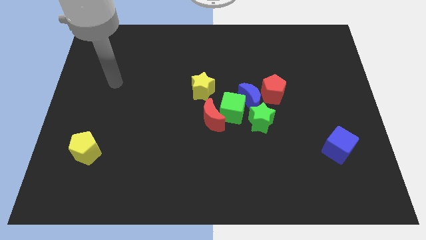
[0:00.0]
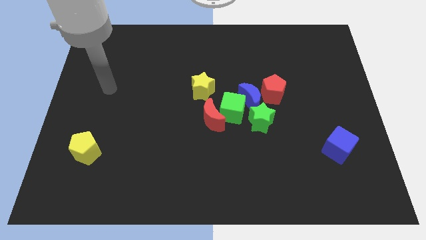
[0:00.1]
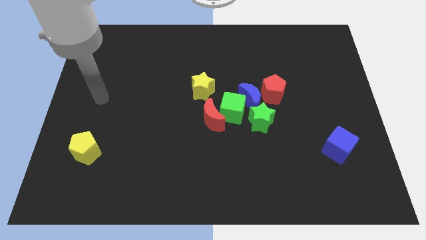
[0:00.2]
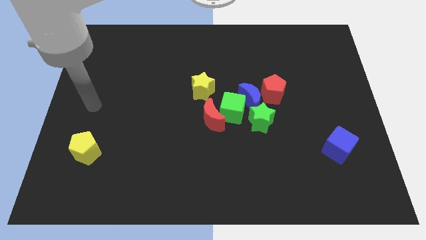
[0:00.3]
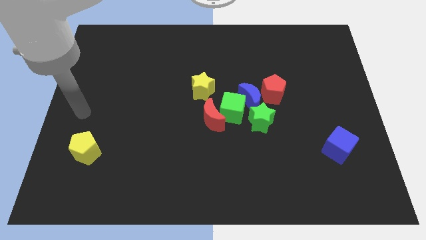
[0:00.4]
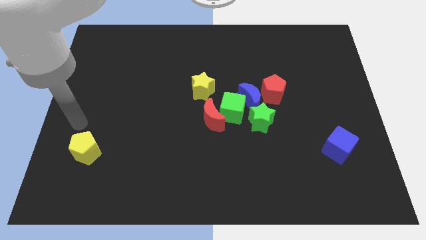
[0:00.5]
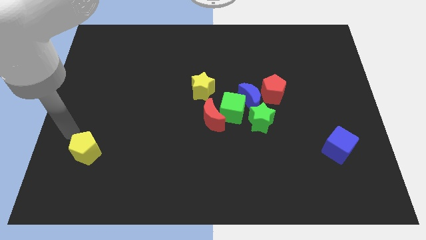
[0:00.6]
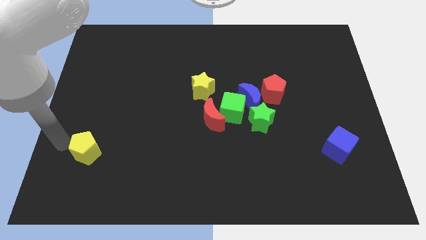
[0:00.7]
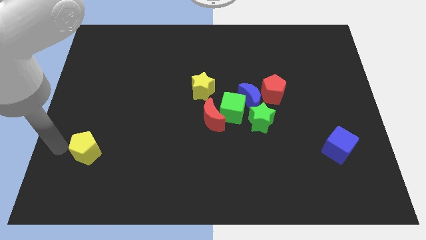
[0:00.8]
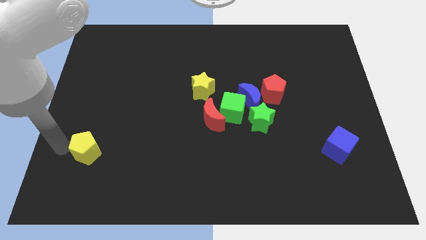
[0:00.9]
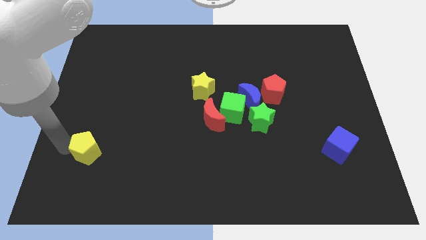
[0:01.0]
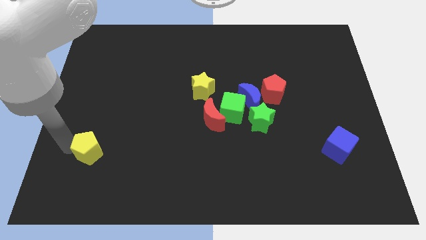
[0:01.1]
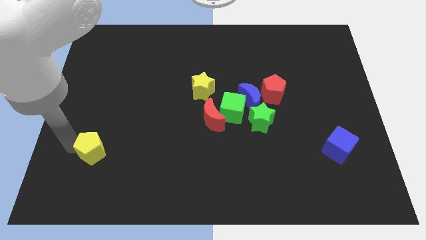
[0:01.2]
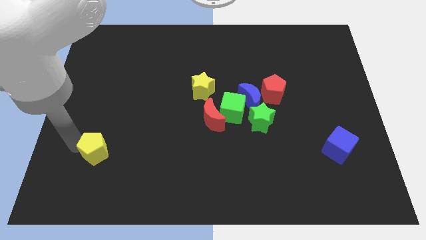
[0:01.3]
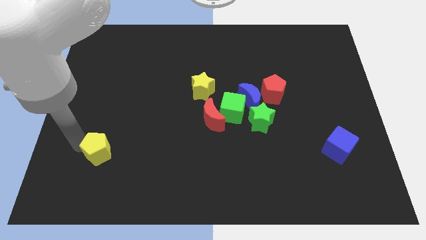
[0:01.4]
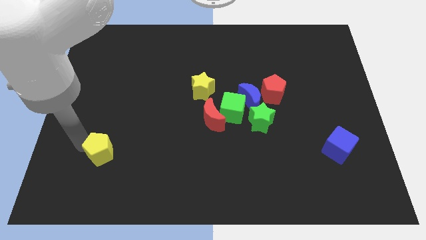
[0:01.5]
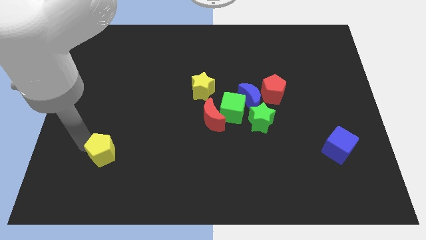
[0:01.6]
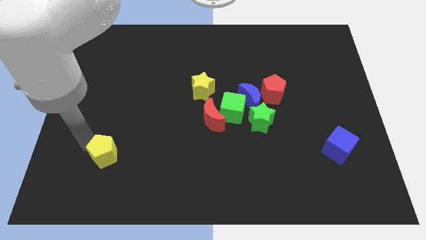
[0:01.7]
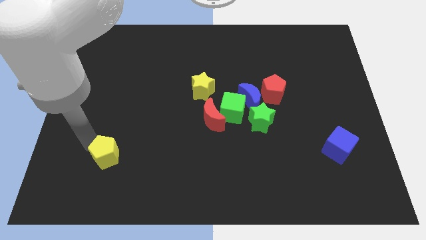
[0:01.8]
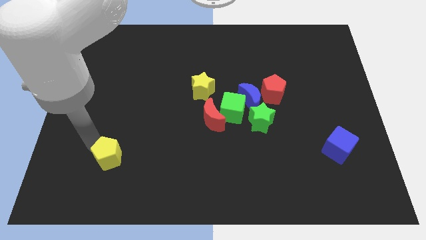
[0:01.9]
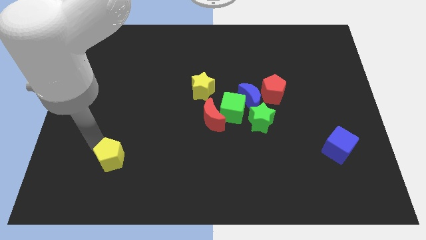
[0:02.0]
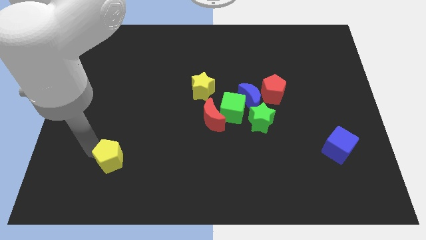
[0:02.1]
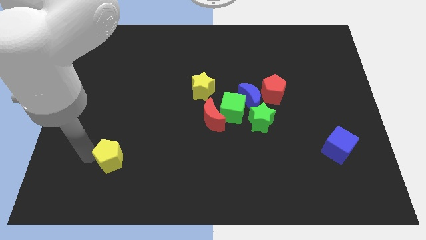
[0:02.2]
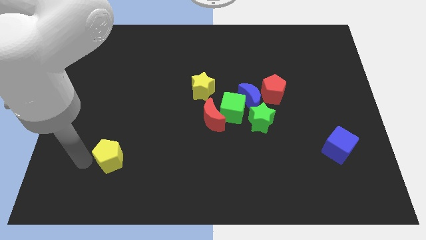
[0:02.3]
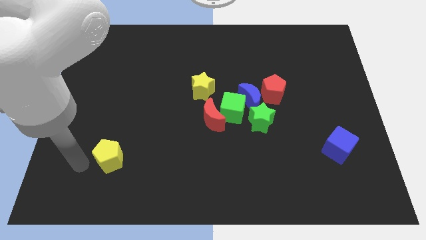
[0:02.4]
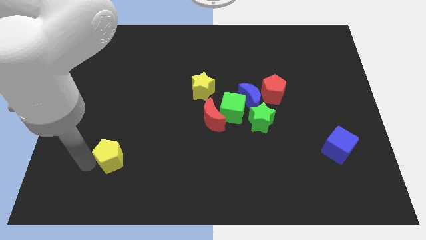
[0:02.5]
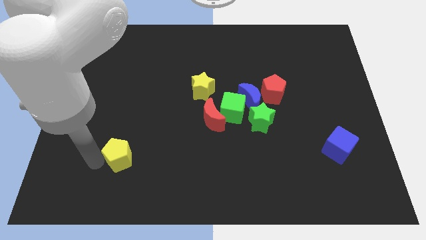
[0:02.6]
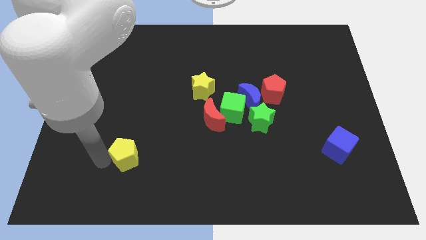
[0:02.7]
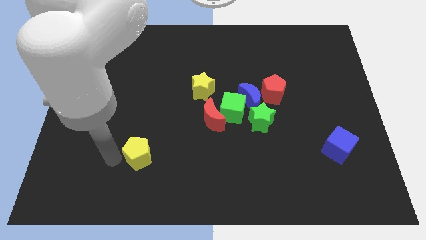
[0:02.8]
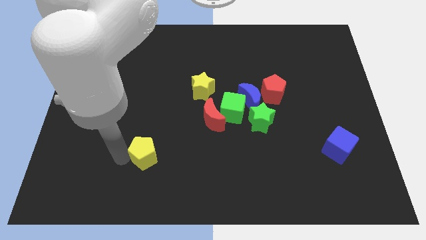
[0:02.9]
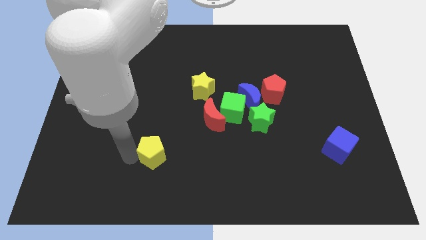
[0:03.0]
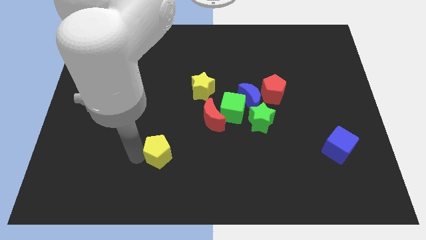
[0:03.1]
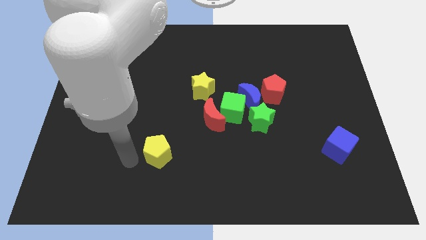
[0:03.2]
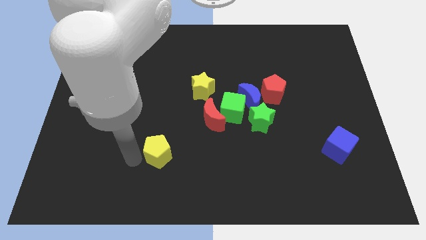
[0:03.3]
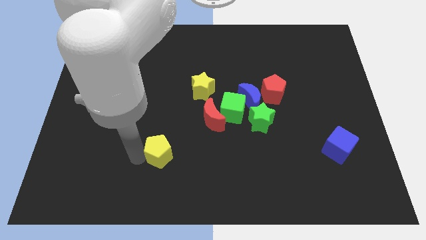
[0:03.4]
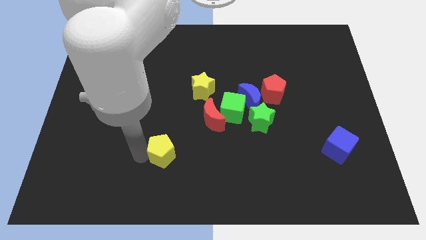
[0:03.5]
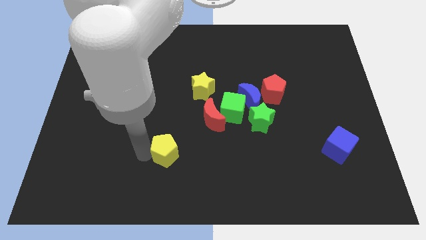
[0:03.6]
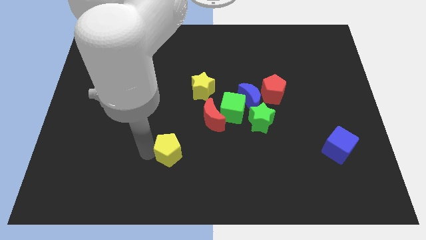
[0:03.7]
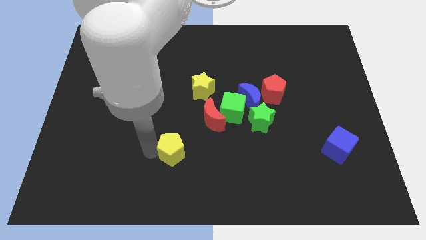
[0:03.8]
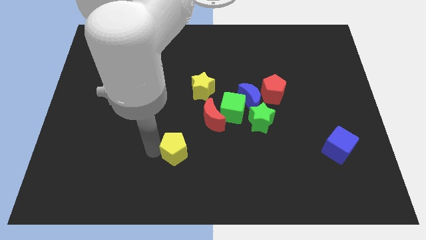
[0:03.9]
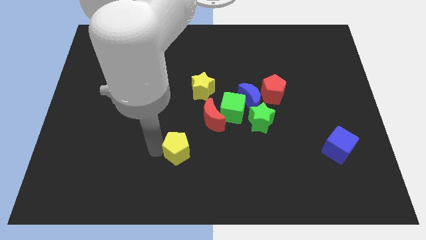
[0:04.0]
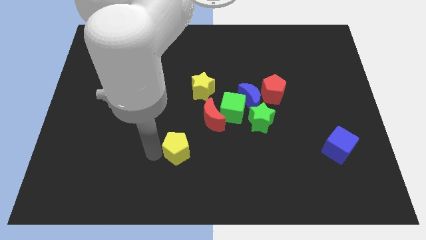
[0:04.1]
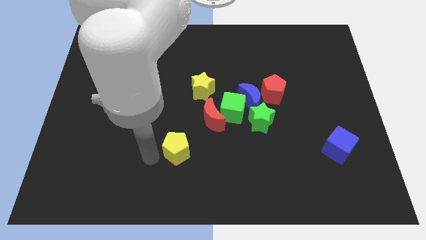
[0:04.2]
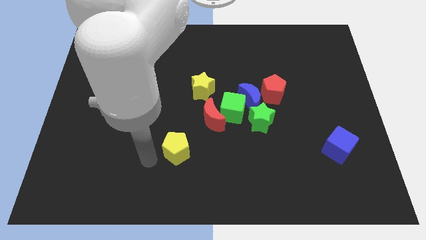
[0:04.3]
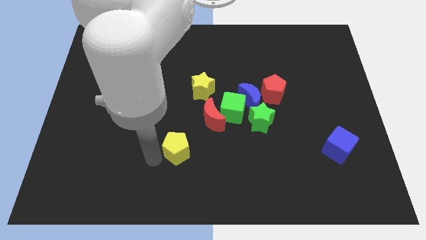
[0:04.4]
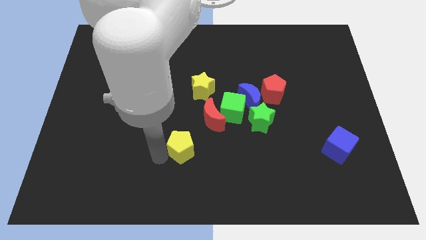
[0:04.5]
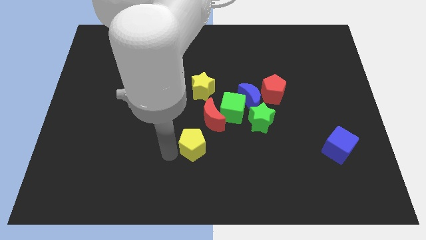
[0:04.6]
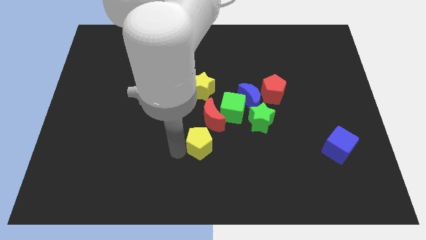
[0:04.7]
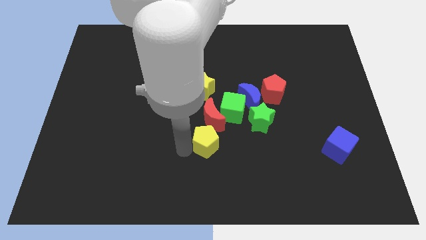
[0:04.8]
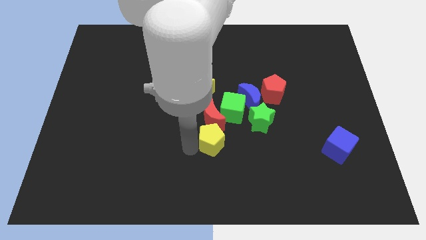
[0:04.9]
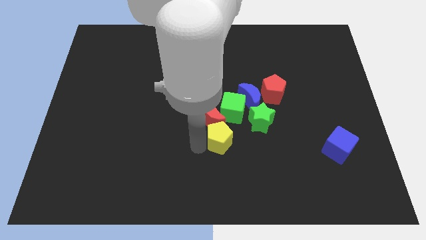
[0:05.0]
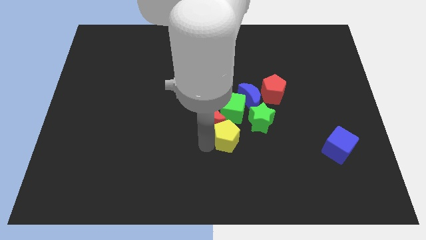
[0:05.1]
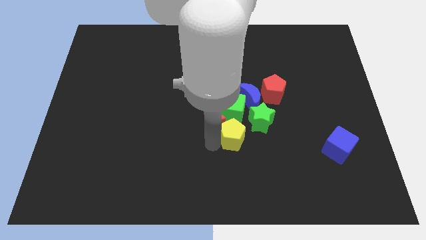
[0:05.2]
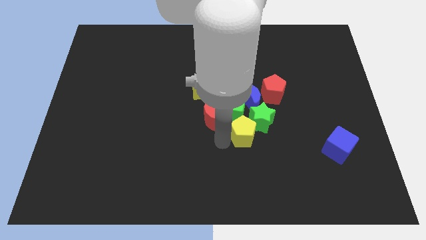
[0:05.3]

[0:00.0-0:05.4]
move the yellow pentagon close to the green star

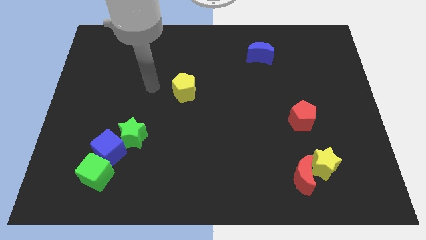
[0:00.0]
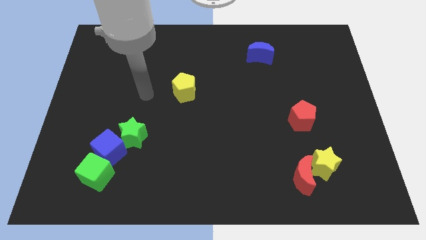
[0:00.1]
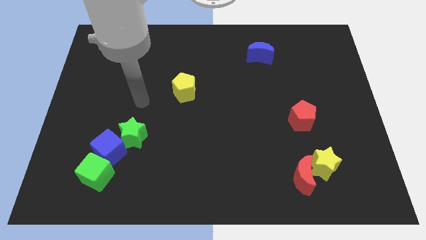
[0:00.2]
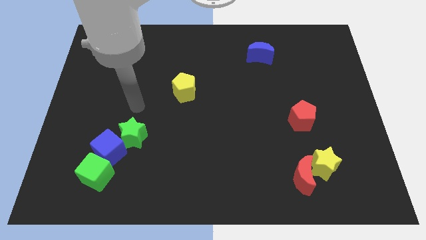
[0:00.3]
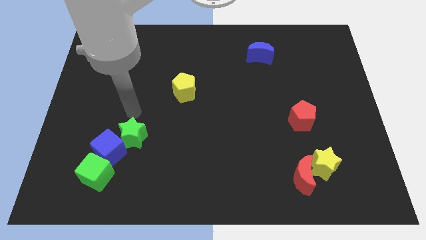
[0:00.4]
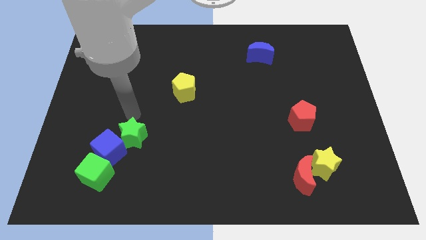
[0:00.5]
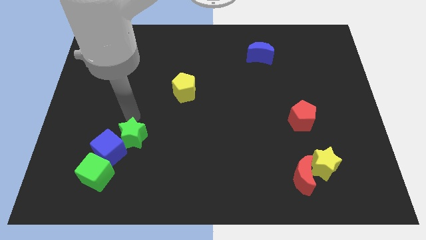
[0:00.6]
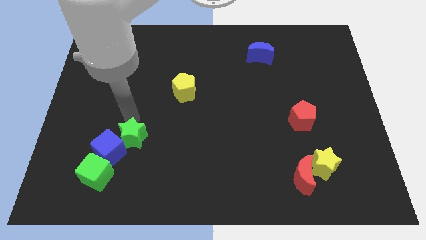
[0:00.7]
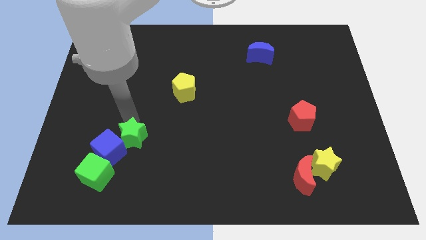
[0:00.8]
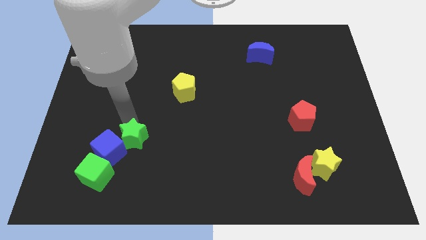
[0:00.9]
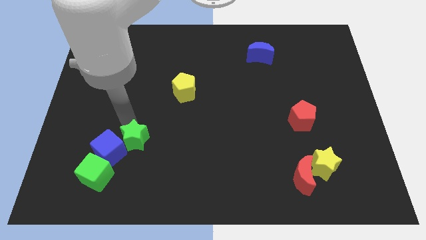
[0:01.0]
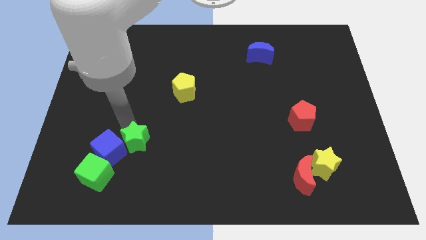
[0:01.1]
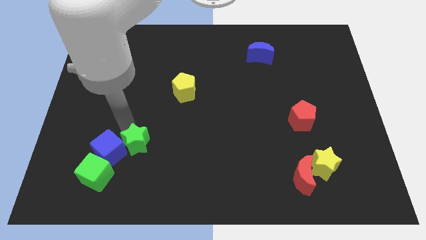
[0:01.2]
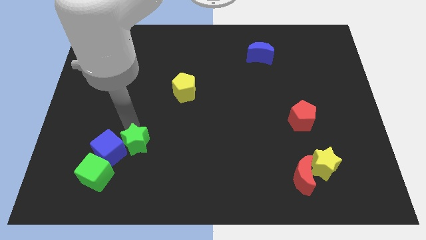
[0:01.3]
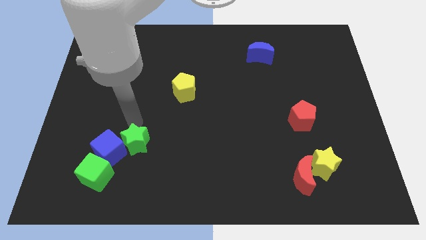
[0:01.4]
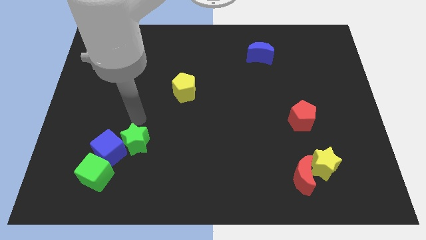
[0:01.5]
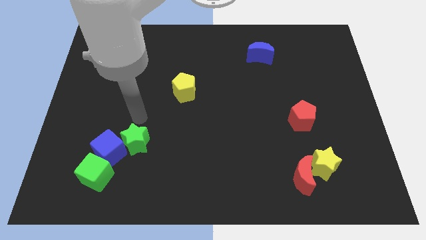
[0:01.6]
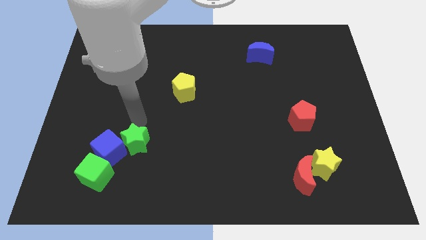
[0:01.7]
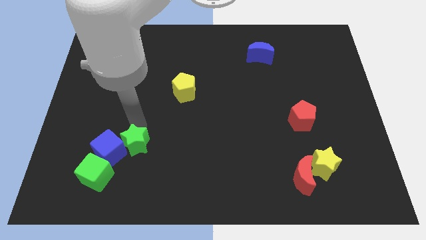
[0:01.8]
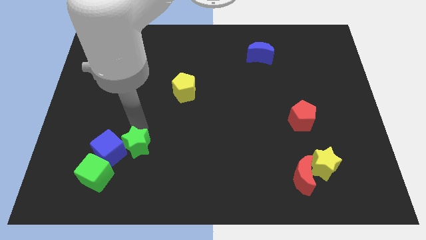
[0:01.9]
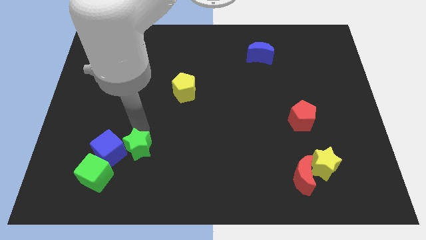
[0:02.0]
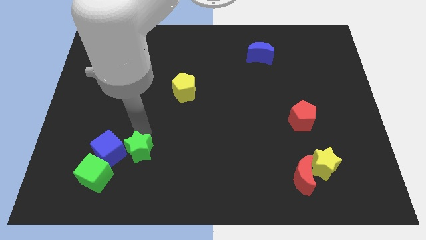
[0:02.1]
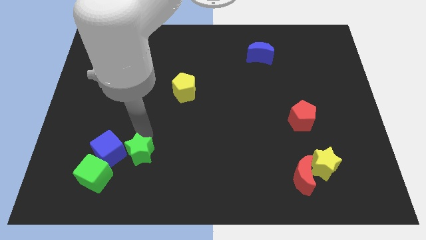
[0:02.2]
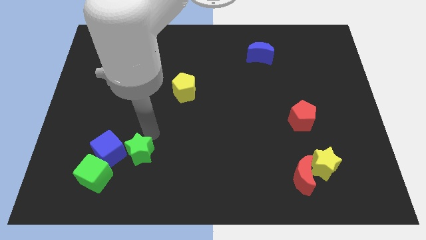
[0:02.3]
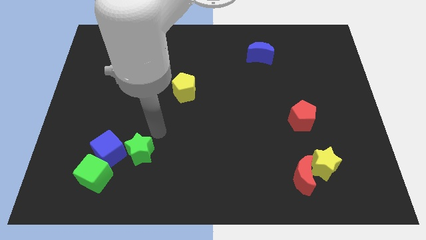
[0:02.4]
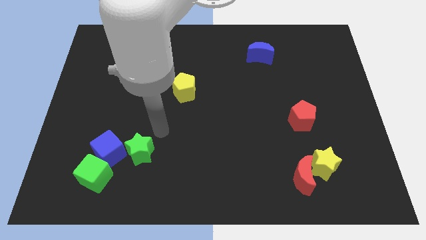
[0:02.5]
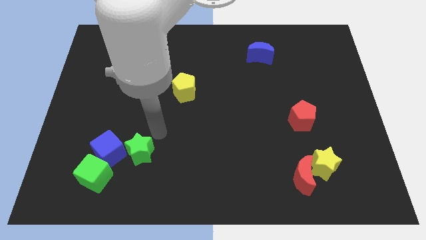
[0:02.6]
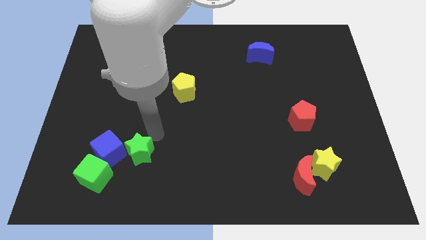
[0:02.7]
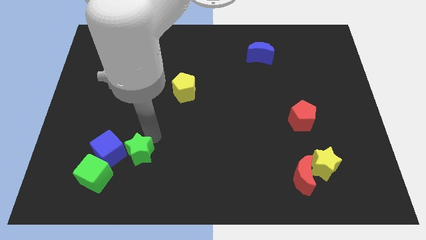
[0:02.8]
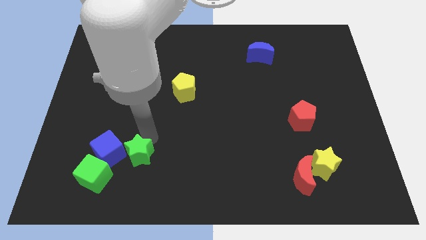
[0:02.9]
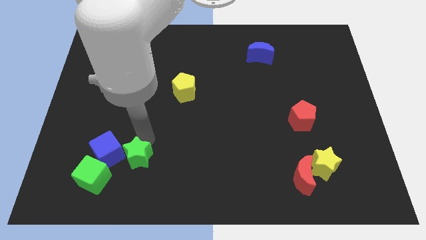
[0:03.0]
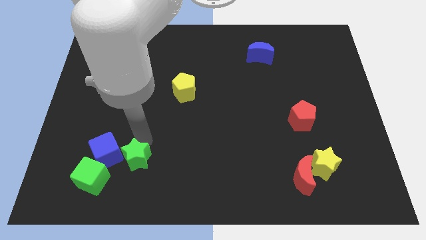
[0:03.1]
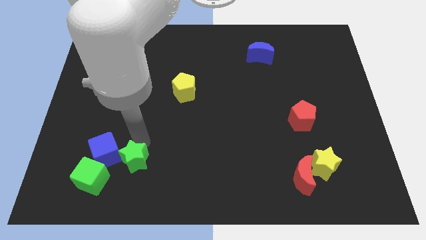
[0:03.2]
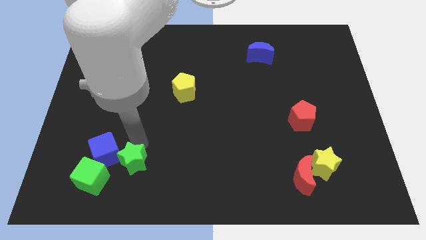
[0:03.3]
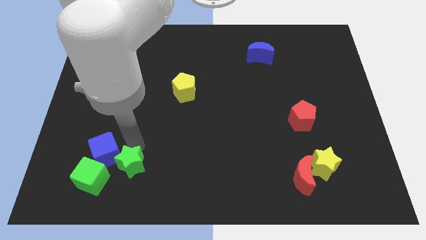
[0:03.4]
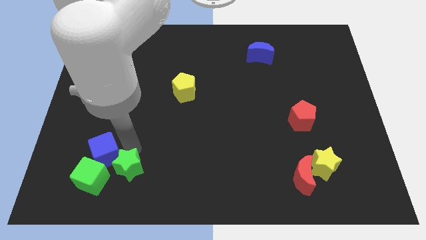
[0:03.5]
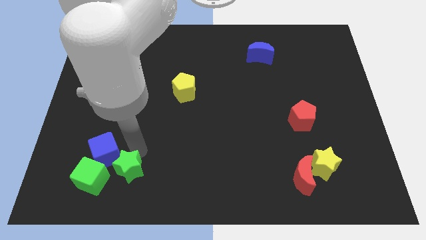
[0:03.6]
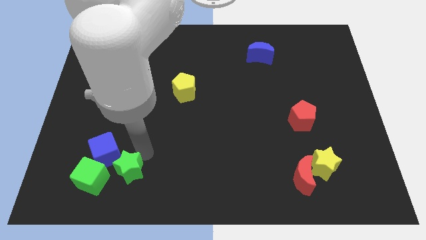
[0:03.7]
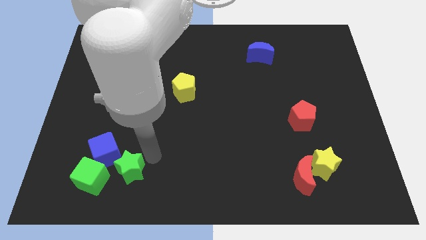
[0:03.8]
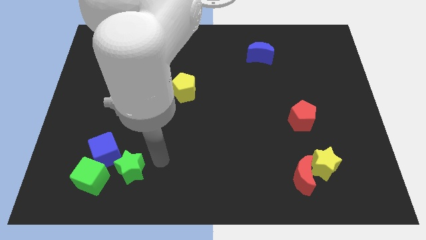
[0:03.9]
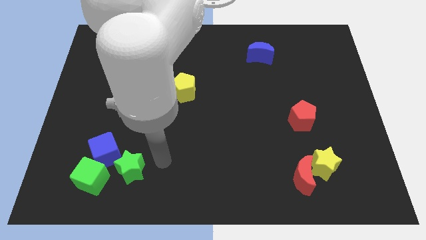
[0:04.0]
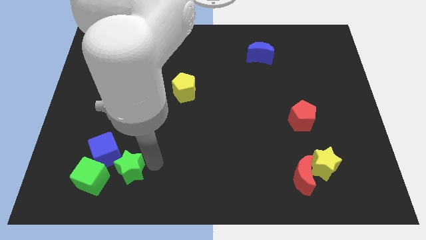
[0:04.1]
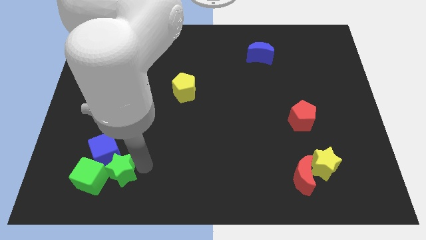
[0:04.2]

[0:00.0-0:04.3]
move the green star next to the green cube
